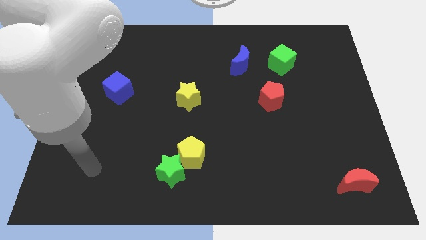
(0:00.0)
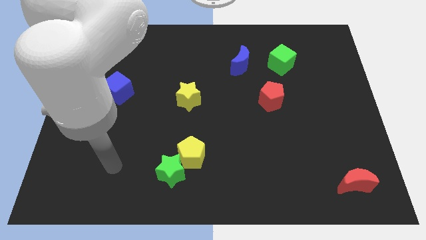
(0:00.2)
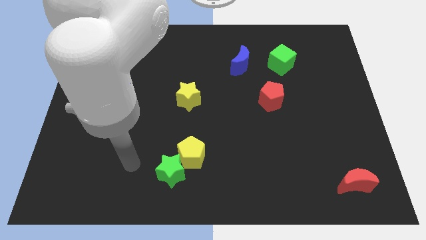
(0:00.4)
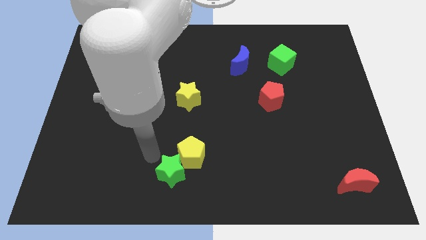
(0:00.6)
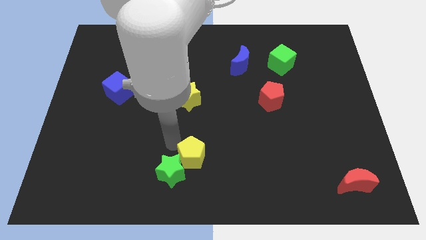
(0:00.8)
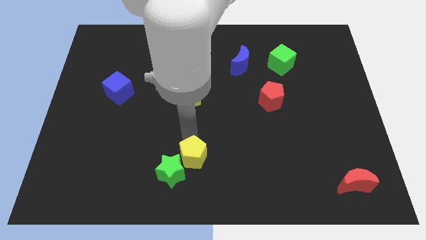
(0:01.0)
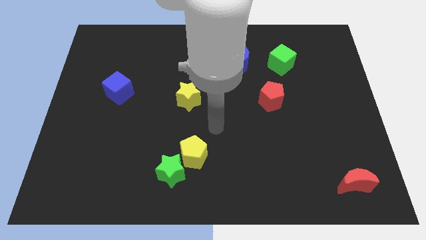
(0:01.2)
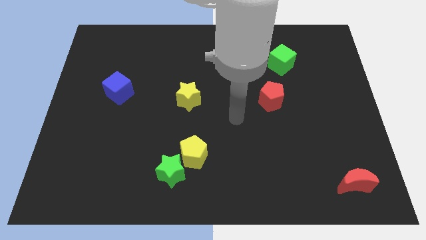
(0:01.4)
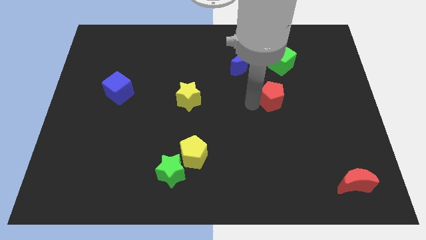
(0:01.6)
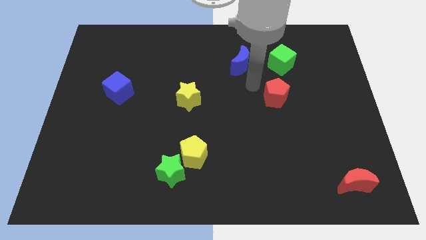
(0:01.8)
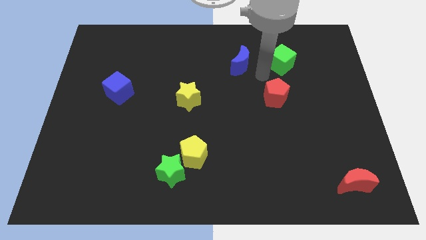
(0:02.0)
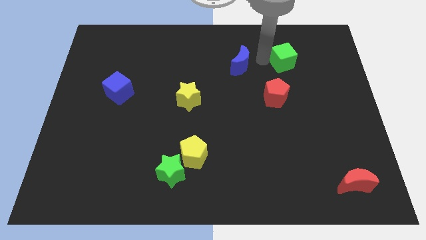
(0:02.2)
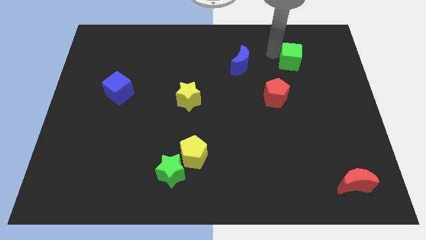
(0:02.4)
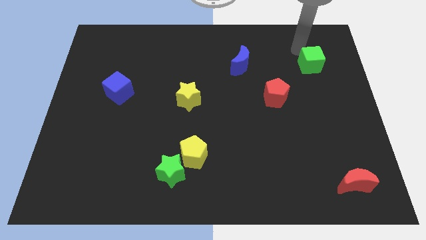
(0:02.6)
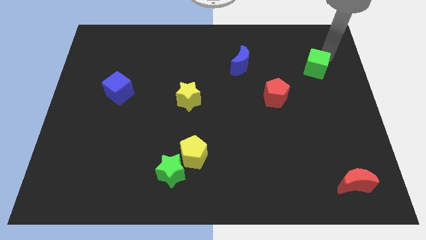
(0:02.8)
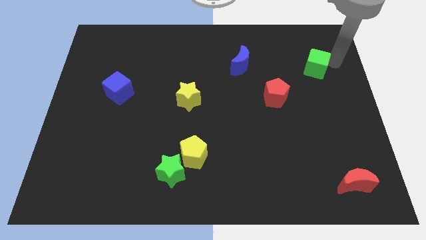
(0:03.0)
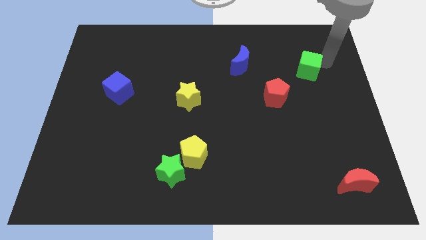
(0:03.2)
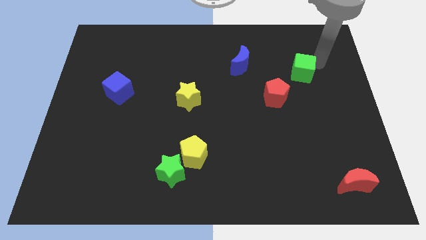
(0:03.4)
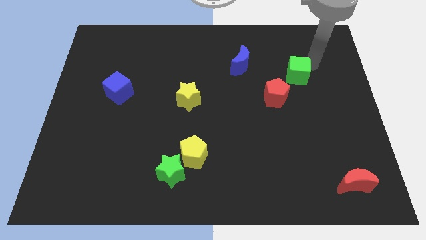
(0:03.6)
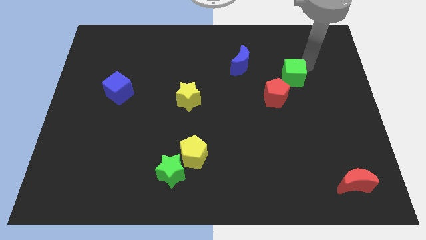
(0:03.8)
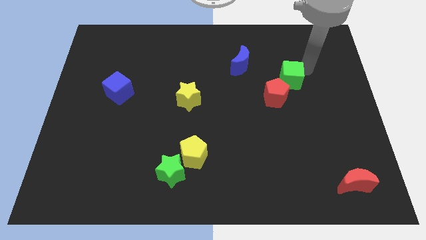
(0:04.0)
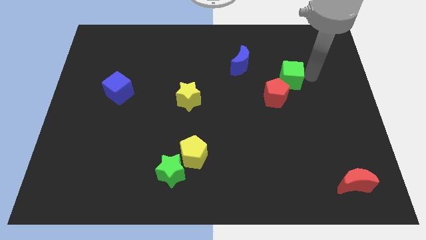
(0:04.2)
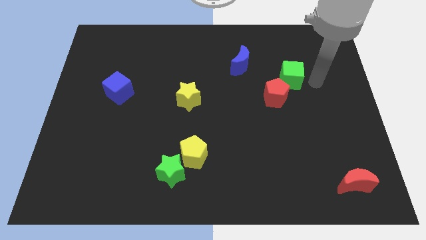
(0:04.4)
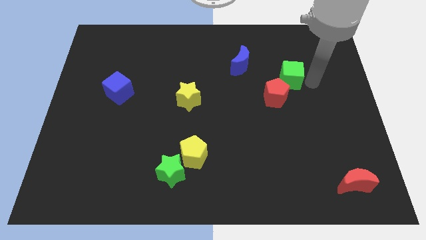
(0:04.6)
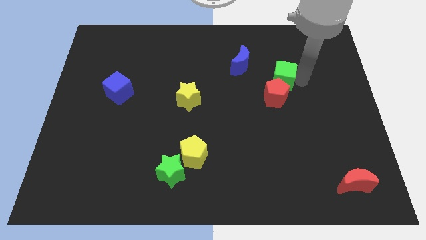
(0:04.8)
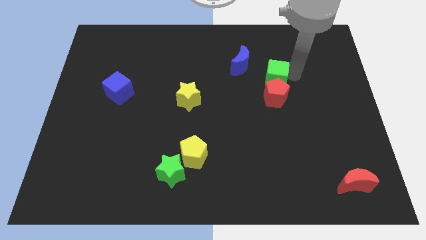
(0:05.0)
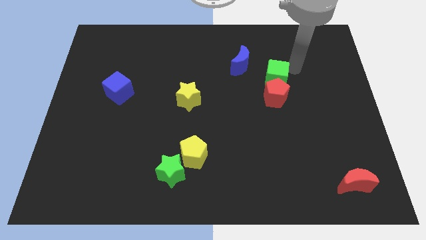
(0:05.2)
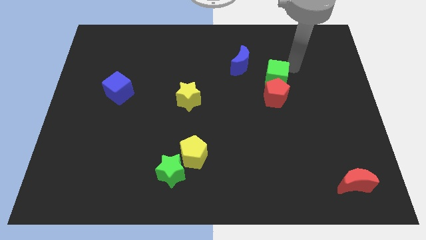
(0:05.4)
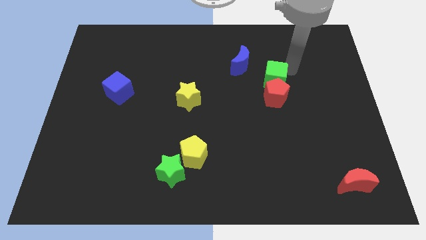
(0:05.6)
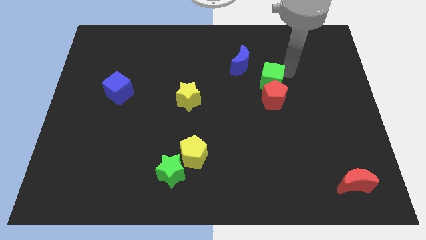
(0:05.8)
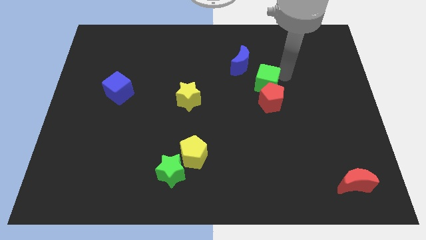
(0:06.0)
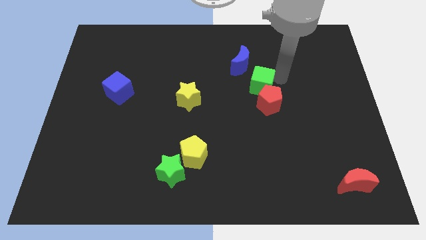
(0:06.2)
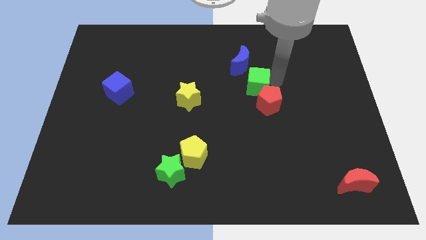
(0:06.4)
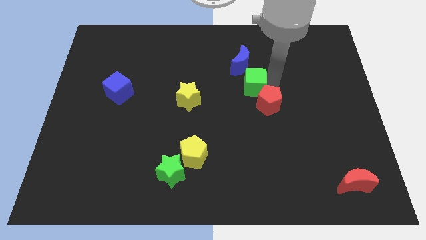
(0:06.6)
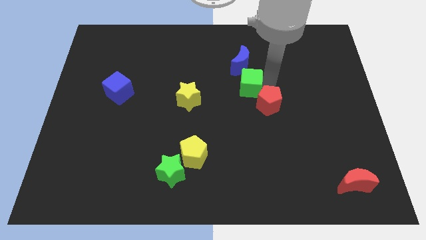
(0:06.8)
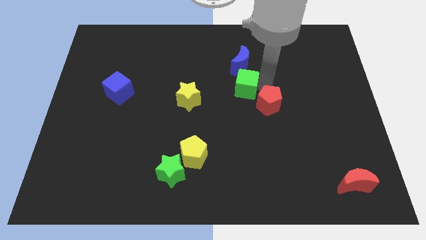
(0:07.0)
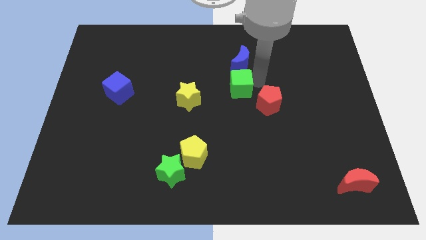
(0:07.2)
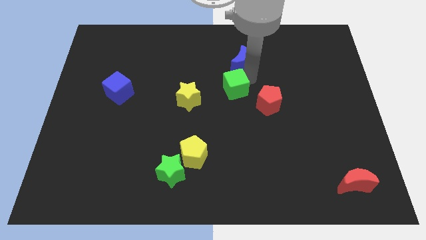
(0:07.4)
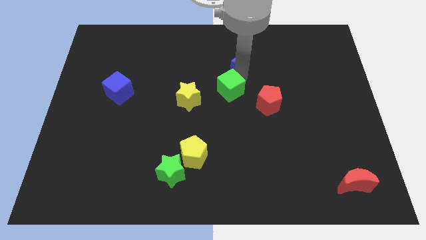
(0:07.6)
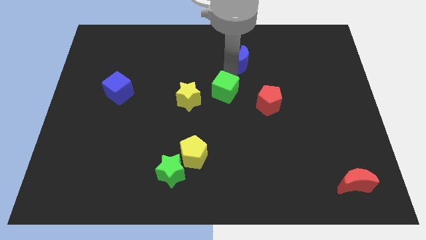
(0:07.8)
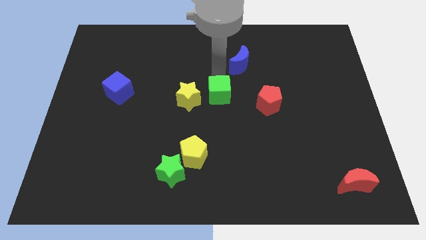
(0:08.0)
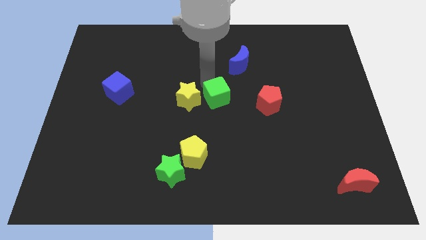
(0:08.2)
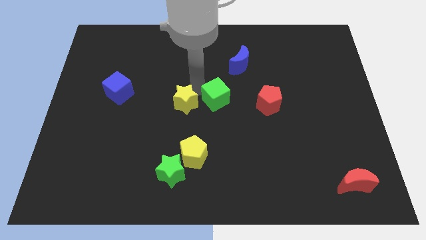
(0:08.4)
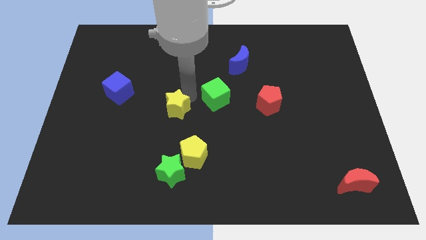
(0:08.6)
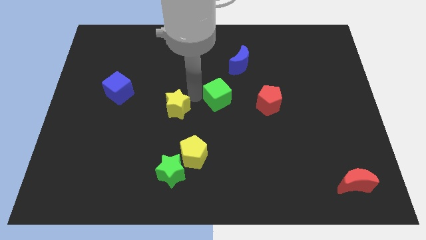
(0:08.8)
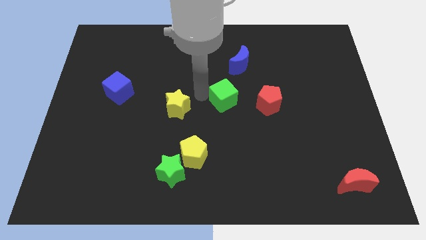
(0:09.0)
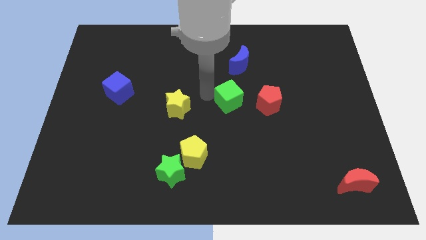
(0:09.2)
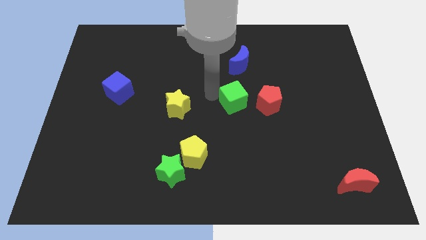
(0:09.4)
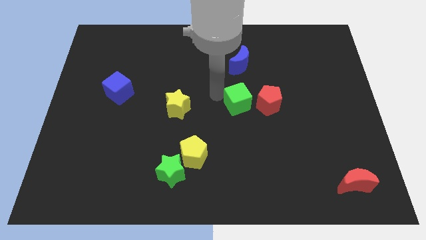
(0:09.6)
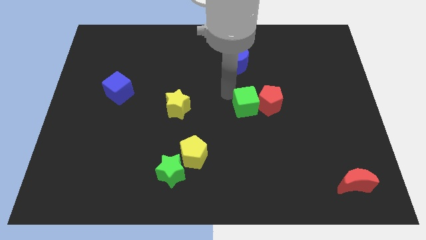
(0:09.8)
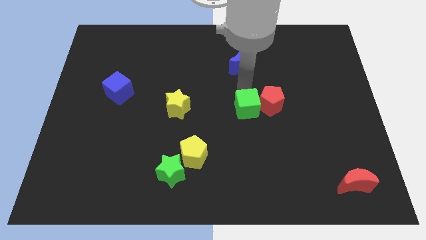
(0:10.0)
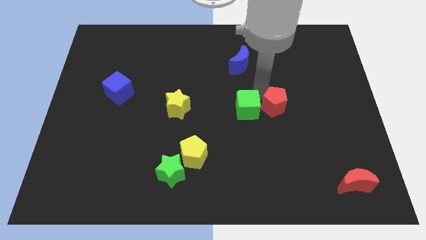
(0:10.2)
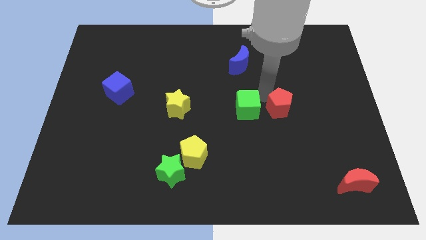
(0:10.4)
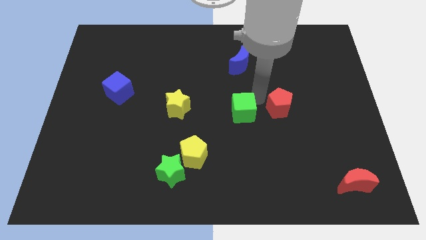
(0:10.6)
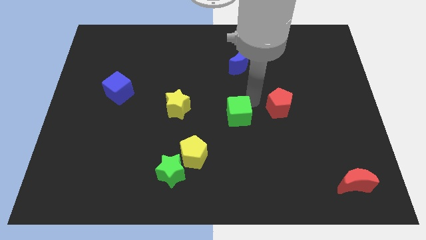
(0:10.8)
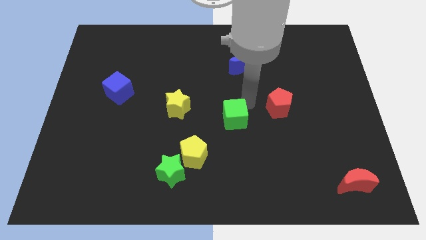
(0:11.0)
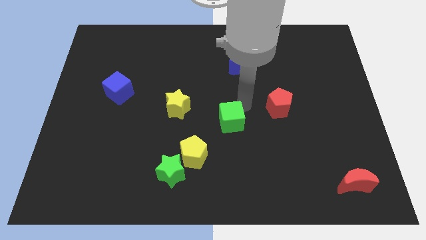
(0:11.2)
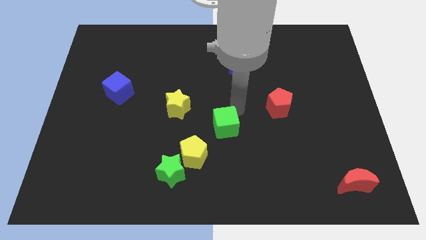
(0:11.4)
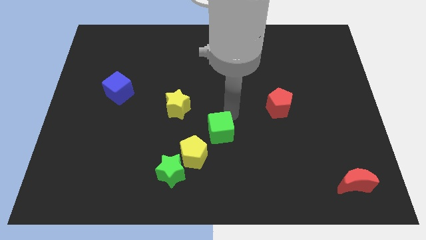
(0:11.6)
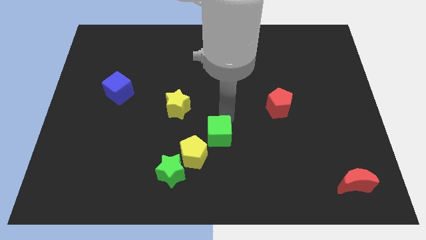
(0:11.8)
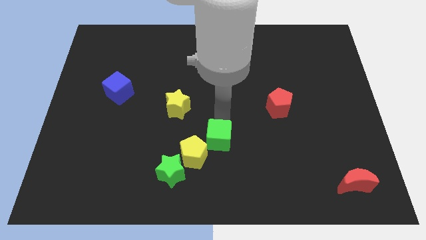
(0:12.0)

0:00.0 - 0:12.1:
push the green cube diagonally up and to the right of the green star
